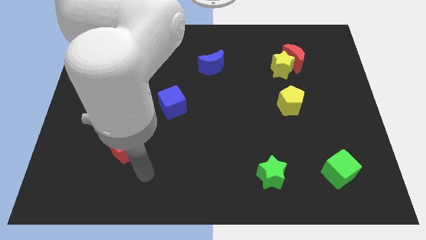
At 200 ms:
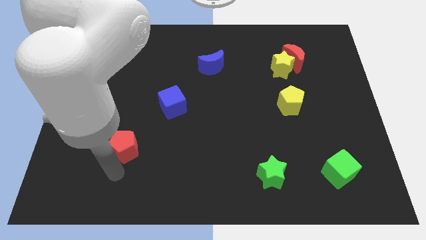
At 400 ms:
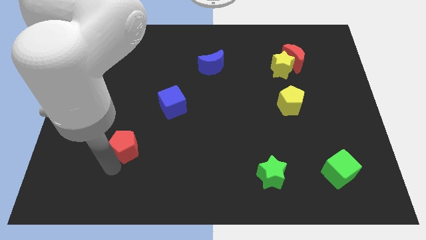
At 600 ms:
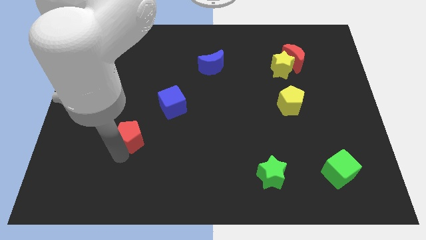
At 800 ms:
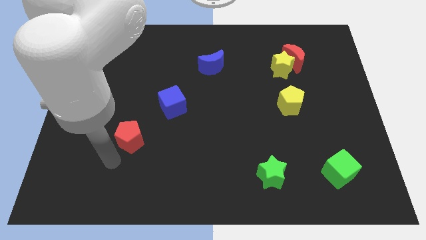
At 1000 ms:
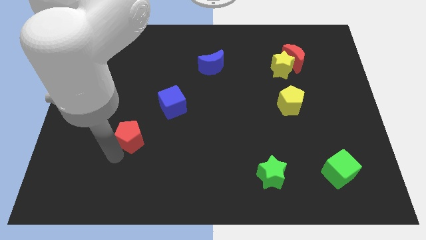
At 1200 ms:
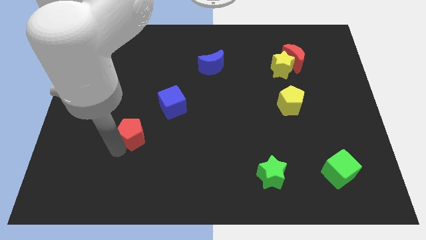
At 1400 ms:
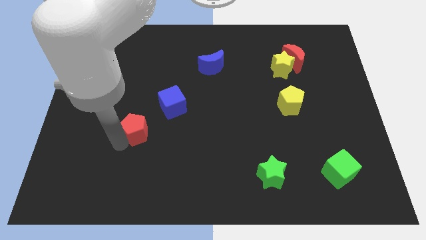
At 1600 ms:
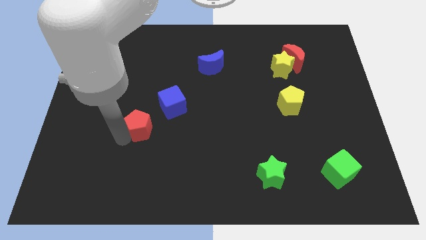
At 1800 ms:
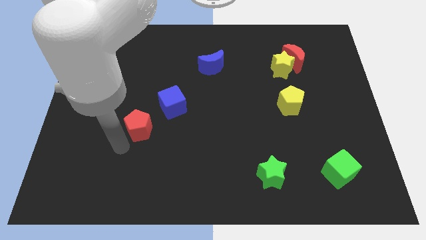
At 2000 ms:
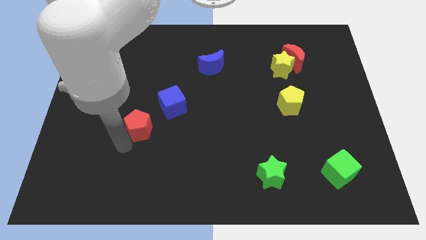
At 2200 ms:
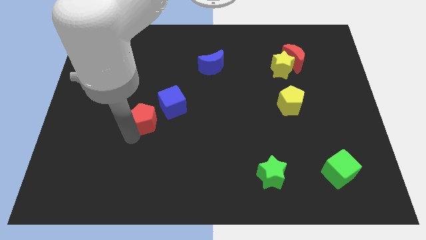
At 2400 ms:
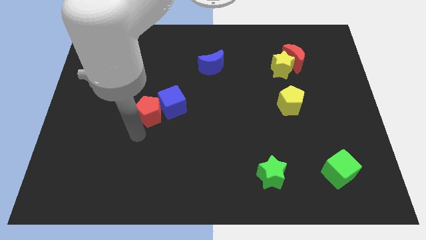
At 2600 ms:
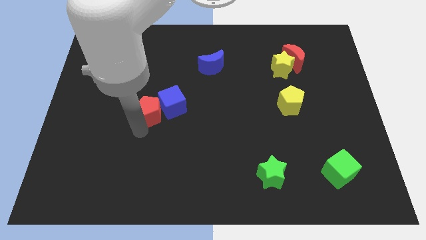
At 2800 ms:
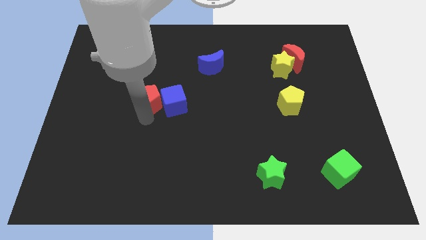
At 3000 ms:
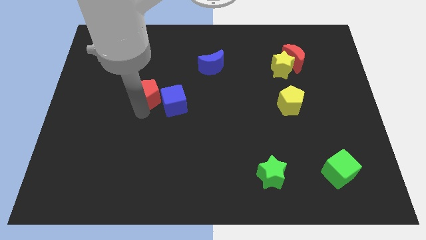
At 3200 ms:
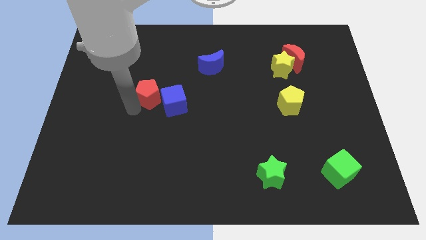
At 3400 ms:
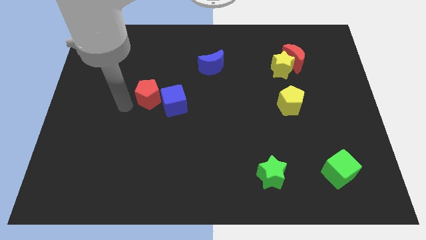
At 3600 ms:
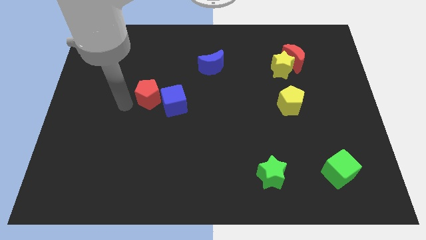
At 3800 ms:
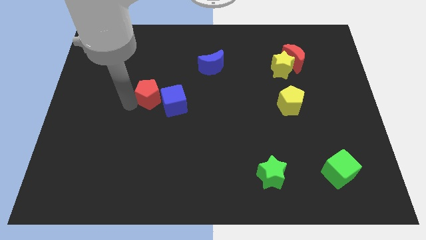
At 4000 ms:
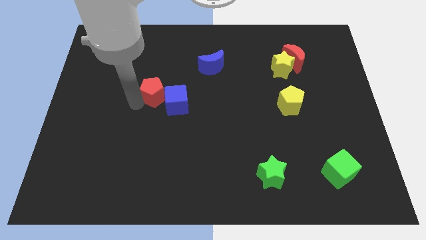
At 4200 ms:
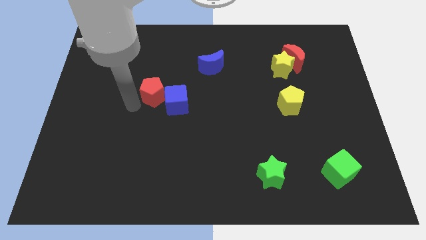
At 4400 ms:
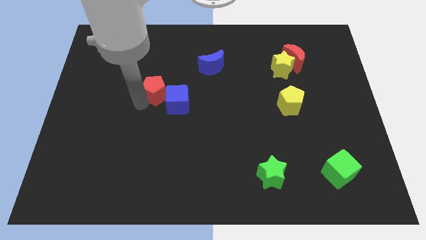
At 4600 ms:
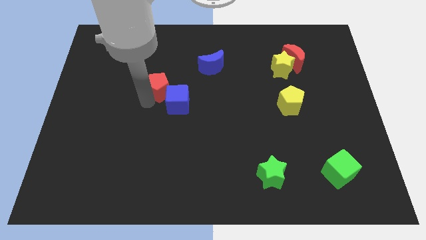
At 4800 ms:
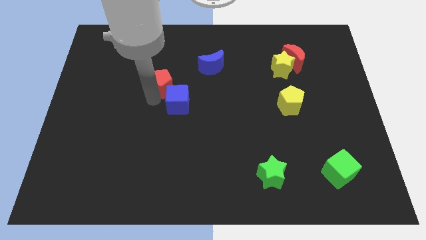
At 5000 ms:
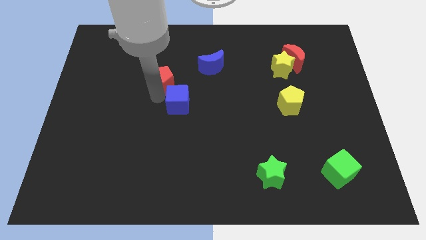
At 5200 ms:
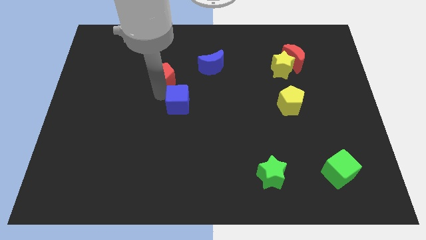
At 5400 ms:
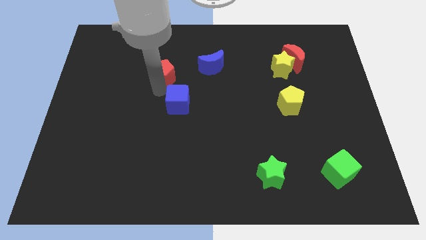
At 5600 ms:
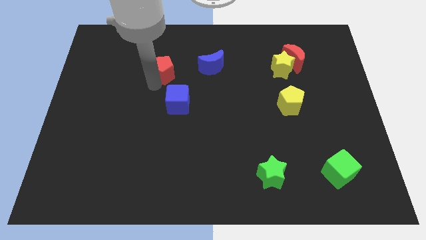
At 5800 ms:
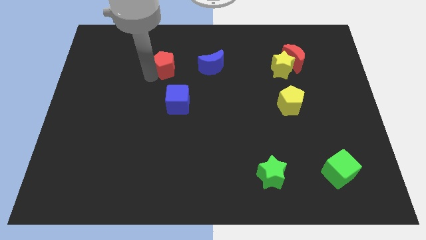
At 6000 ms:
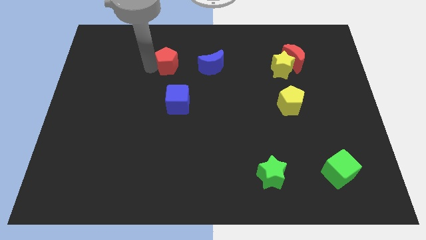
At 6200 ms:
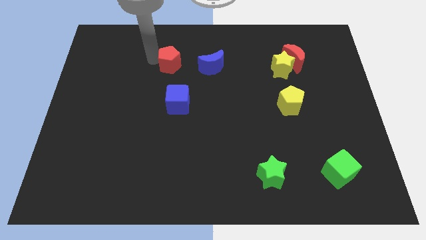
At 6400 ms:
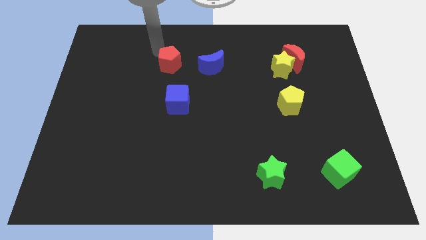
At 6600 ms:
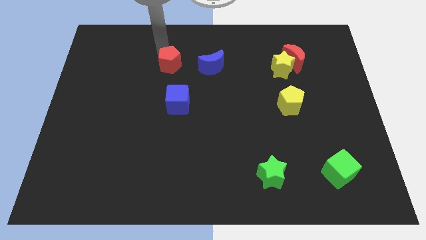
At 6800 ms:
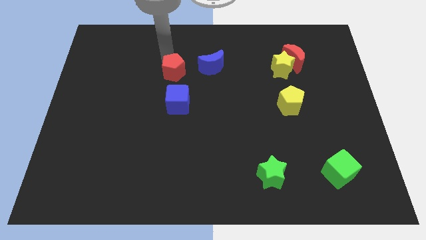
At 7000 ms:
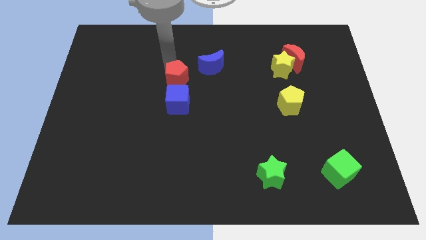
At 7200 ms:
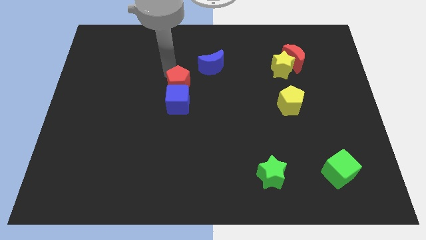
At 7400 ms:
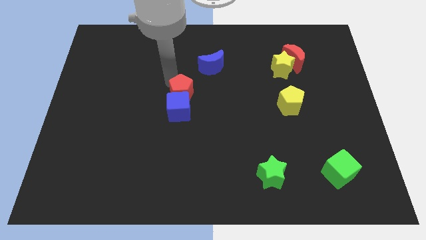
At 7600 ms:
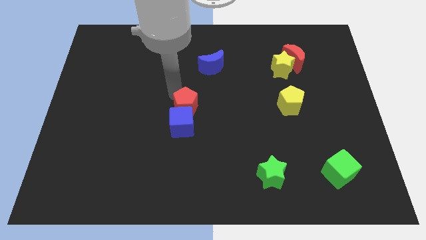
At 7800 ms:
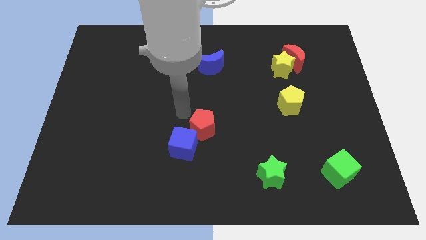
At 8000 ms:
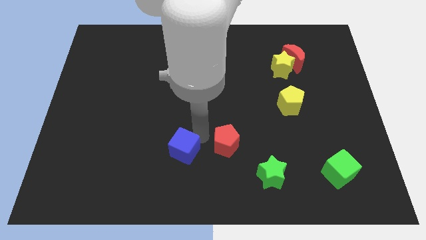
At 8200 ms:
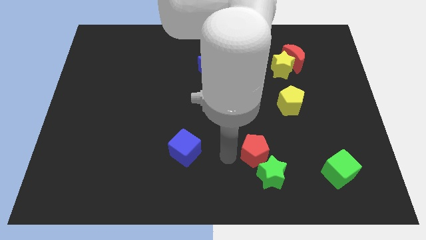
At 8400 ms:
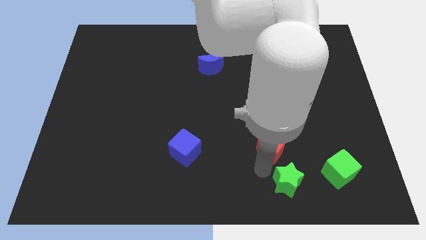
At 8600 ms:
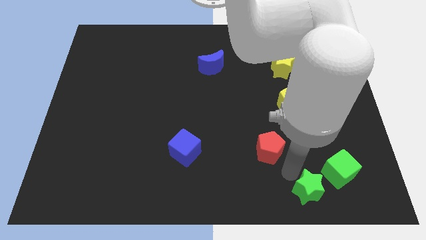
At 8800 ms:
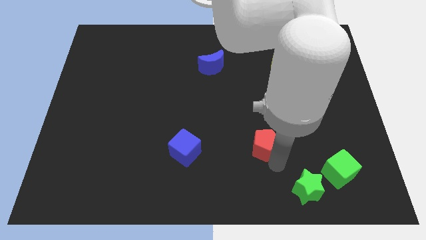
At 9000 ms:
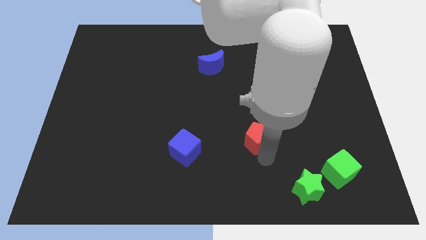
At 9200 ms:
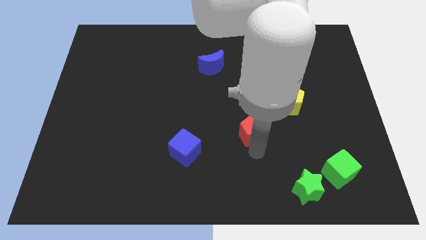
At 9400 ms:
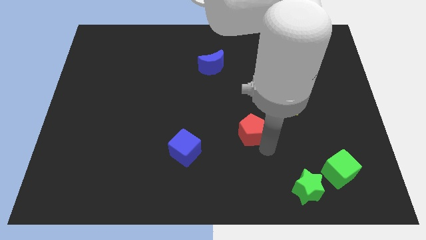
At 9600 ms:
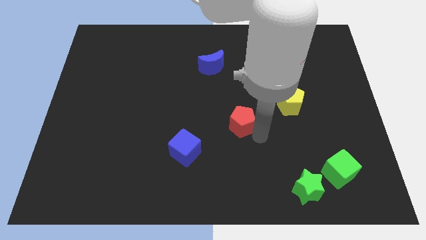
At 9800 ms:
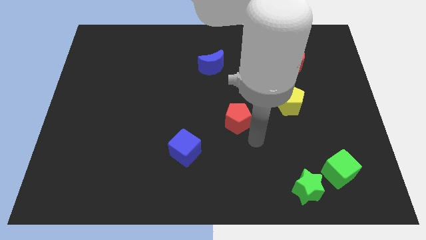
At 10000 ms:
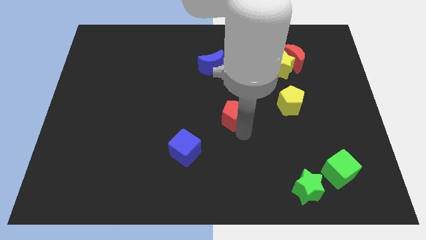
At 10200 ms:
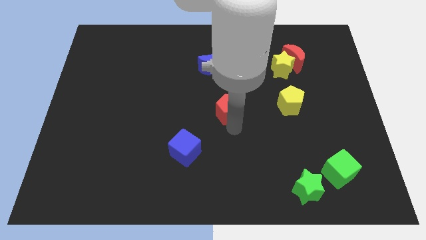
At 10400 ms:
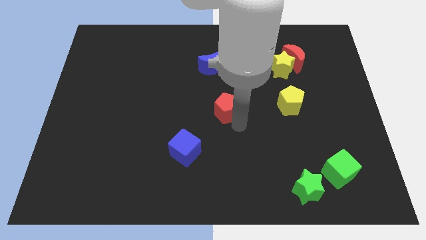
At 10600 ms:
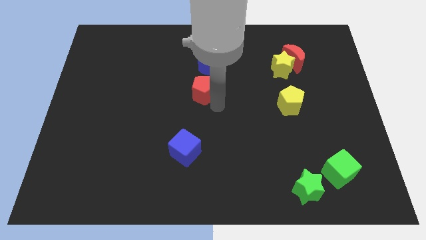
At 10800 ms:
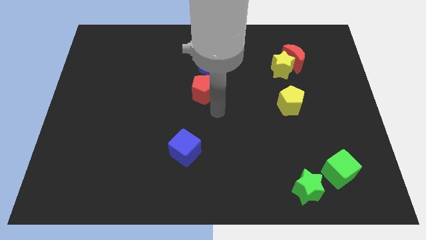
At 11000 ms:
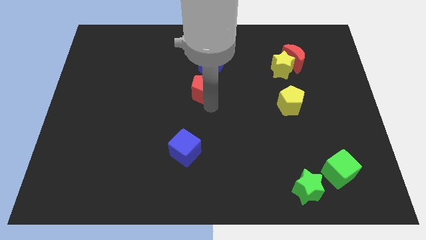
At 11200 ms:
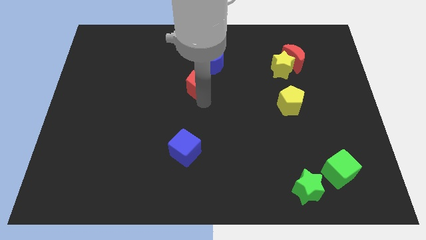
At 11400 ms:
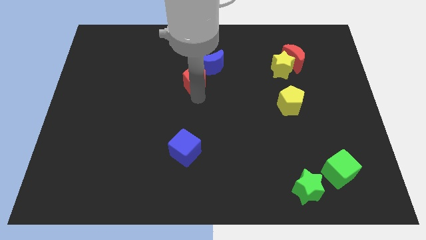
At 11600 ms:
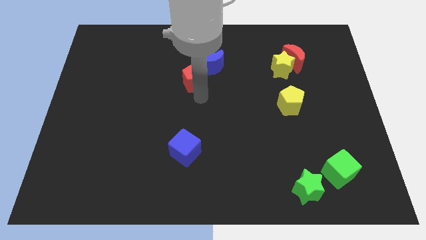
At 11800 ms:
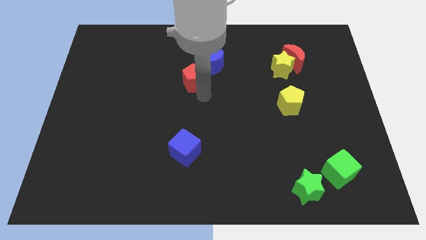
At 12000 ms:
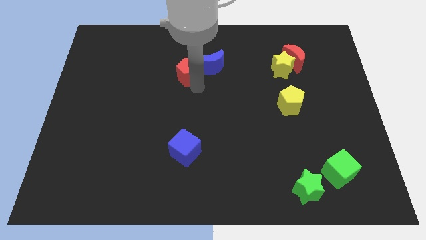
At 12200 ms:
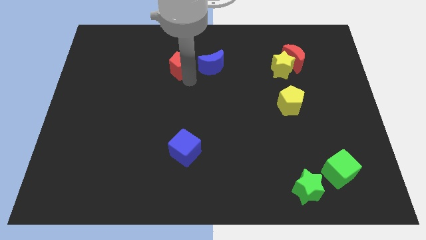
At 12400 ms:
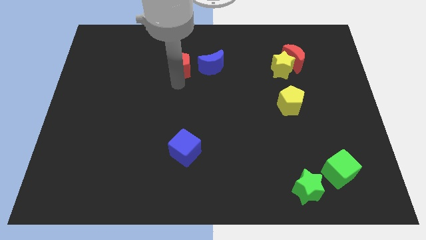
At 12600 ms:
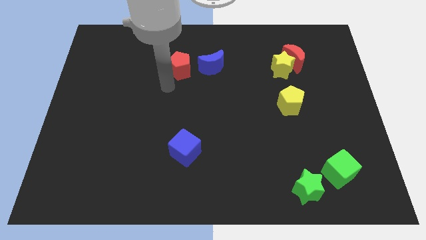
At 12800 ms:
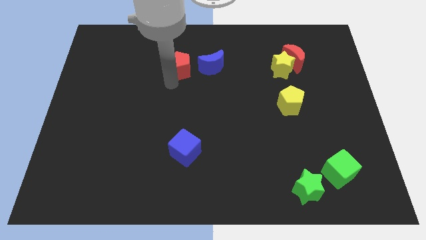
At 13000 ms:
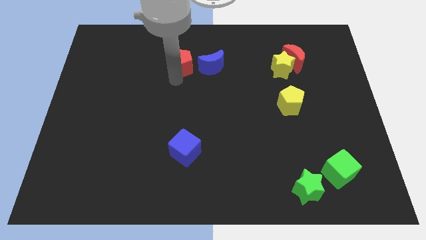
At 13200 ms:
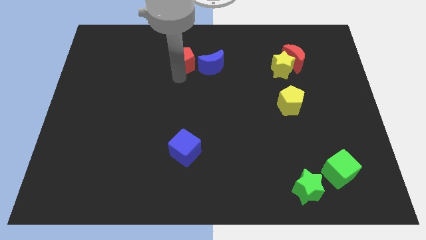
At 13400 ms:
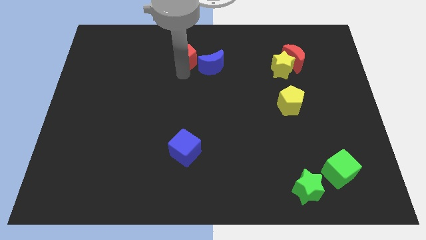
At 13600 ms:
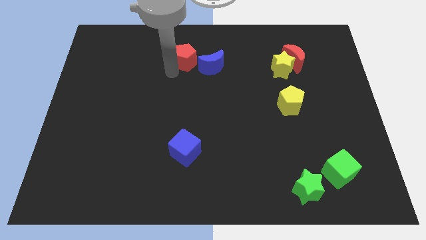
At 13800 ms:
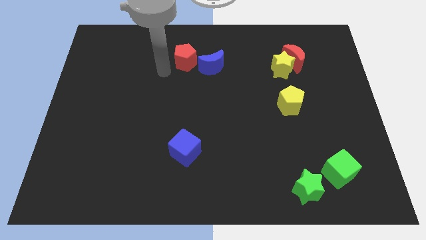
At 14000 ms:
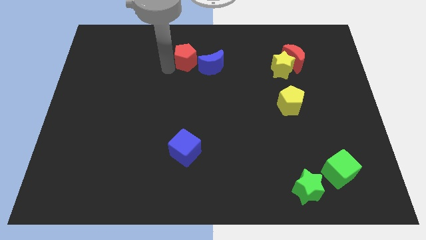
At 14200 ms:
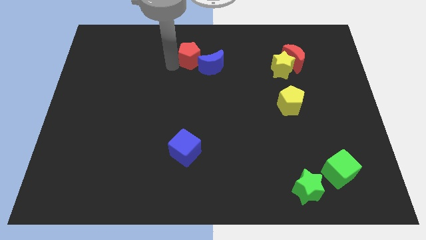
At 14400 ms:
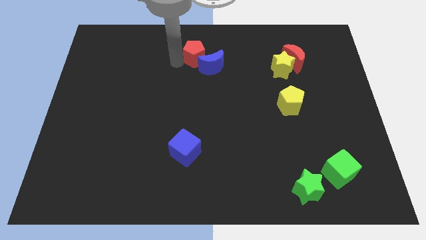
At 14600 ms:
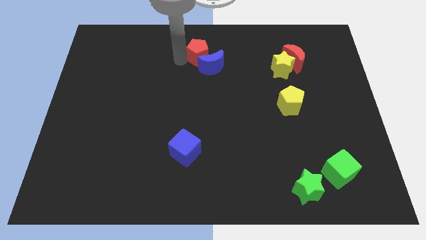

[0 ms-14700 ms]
put the red pentagon to the towards your base
